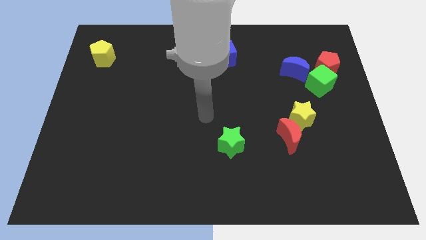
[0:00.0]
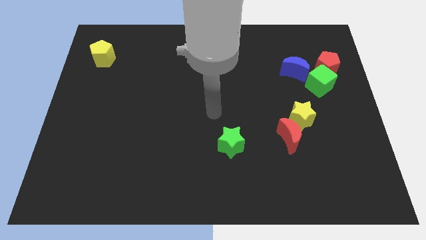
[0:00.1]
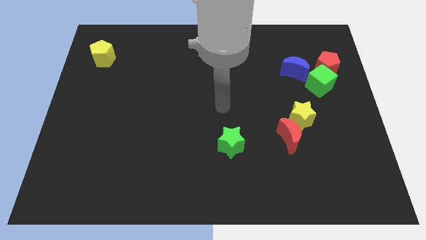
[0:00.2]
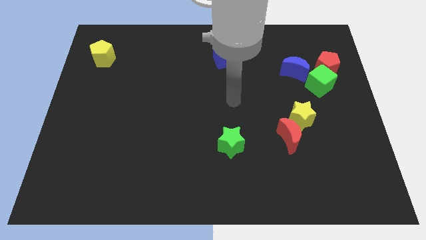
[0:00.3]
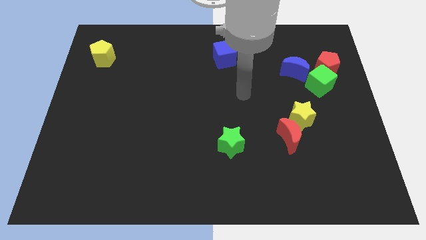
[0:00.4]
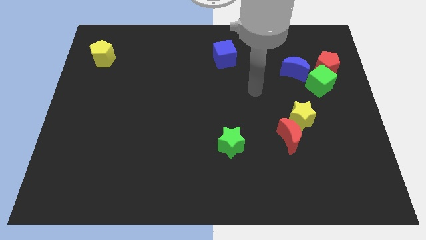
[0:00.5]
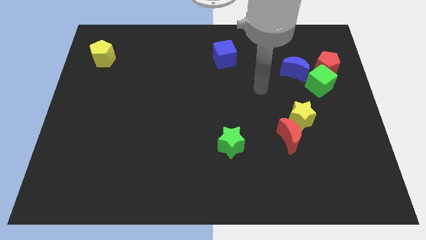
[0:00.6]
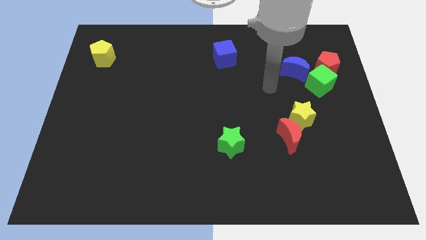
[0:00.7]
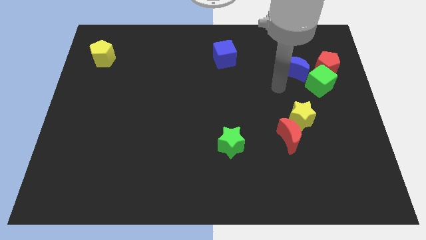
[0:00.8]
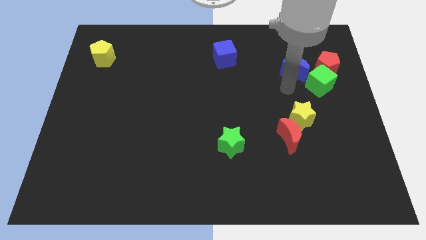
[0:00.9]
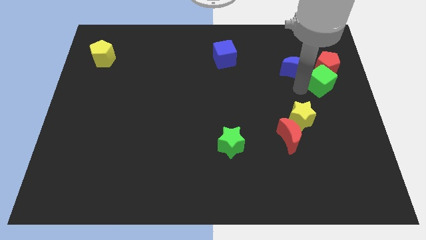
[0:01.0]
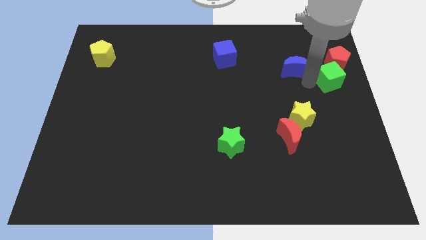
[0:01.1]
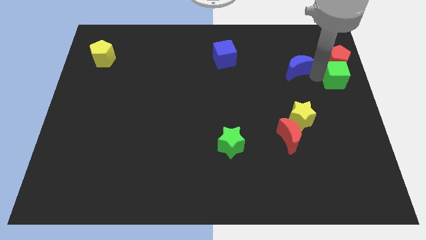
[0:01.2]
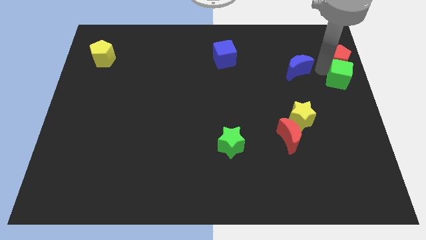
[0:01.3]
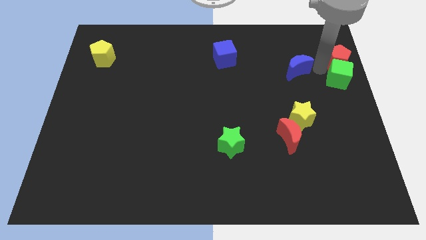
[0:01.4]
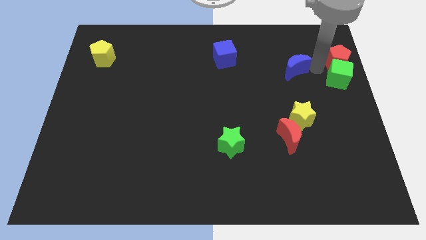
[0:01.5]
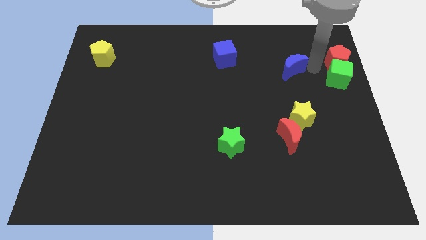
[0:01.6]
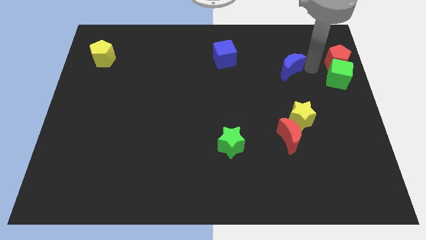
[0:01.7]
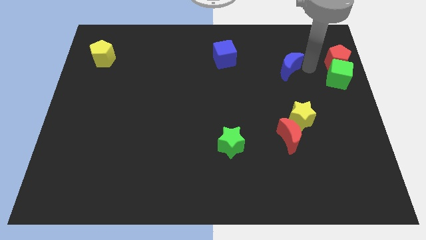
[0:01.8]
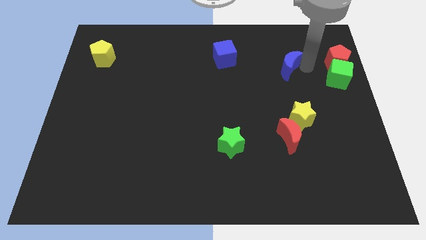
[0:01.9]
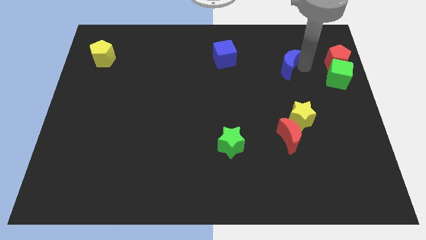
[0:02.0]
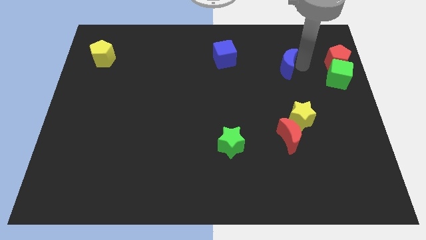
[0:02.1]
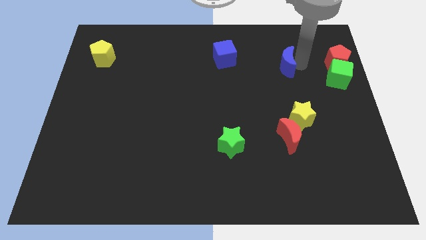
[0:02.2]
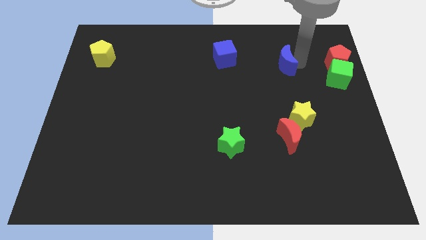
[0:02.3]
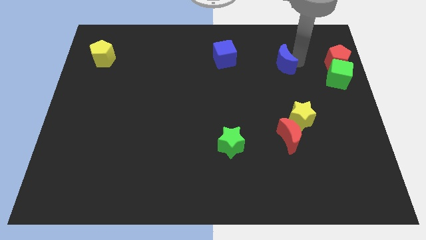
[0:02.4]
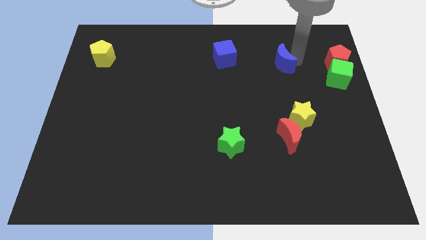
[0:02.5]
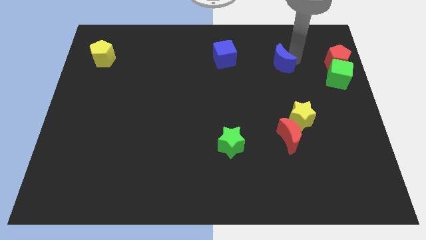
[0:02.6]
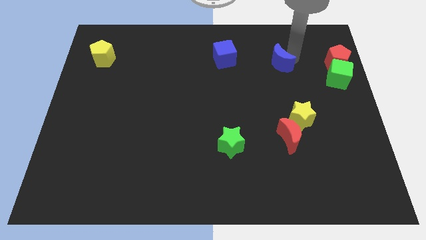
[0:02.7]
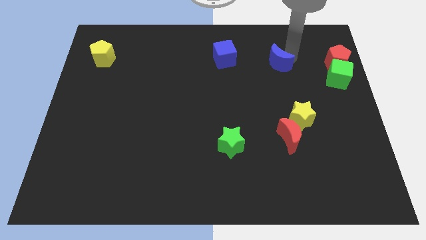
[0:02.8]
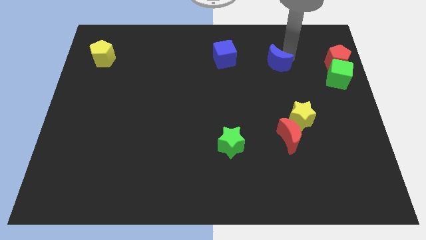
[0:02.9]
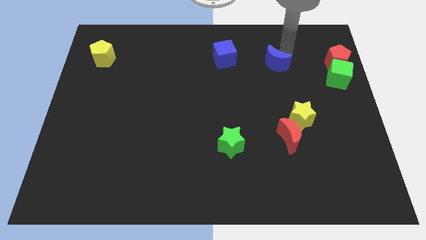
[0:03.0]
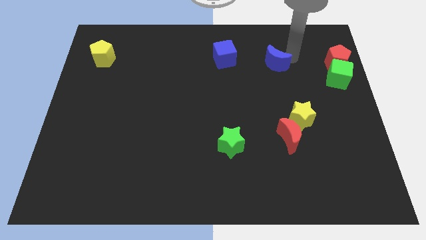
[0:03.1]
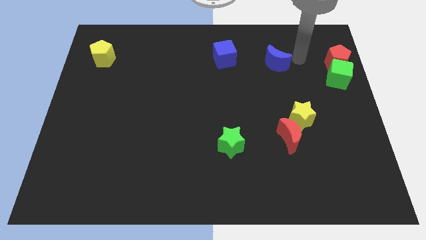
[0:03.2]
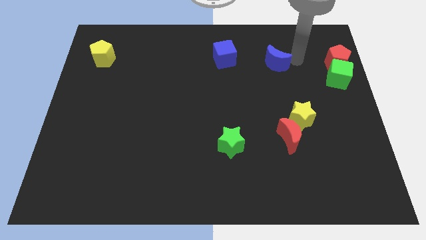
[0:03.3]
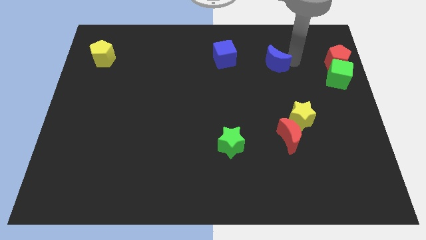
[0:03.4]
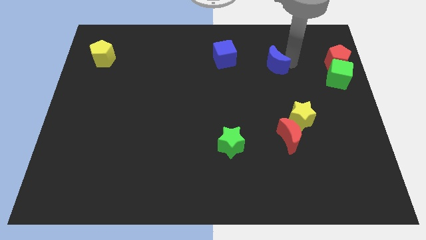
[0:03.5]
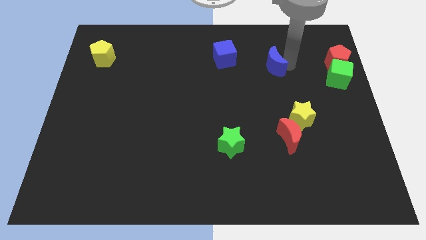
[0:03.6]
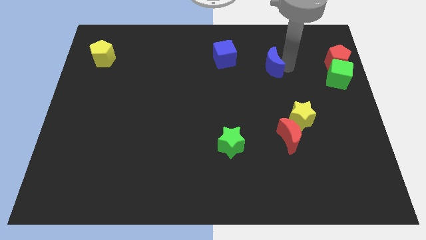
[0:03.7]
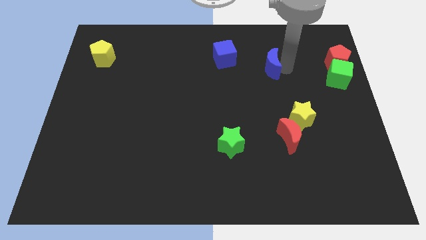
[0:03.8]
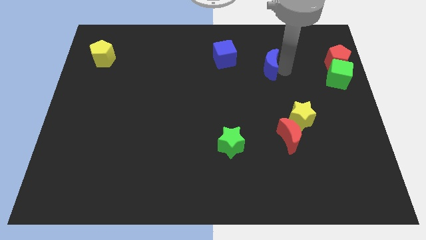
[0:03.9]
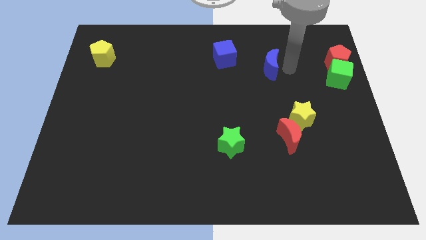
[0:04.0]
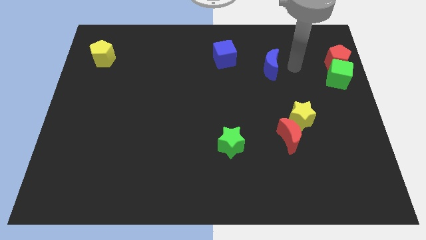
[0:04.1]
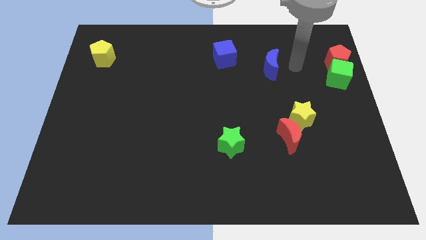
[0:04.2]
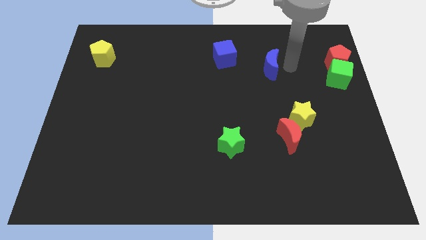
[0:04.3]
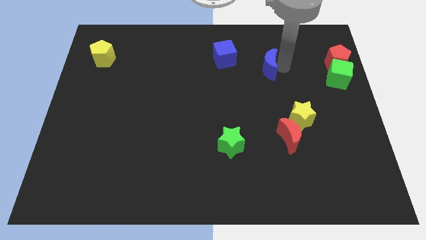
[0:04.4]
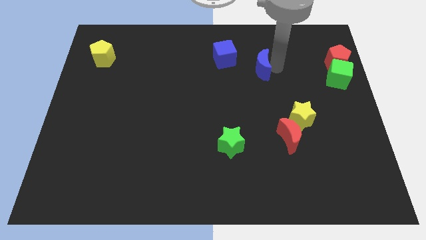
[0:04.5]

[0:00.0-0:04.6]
push the blue moon a bit to the left

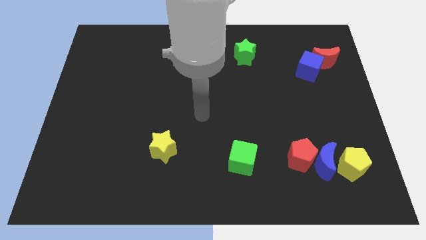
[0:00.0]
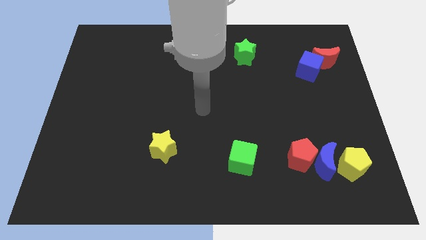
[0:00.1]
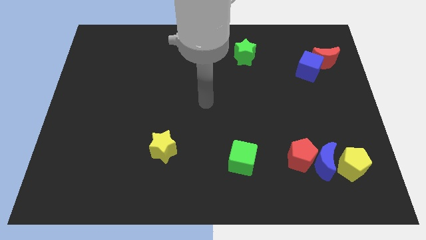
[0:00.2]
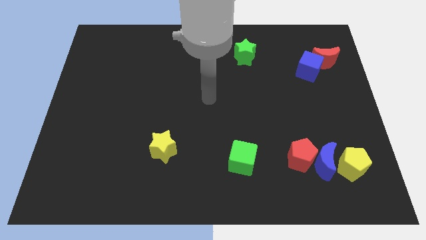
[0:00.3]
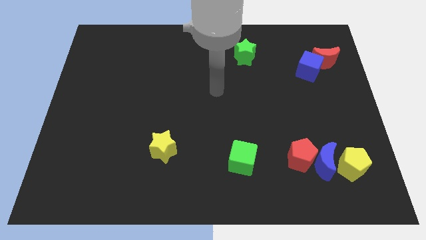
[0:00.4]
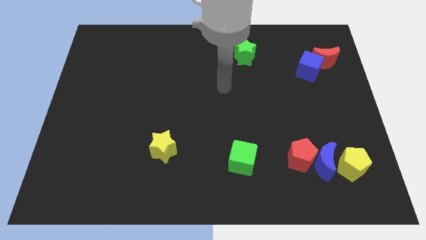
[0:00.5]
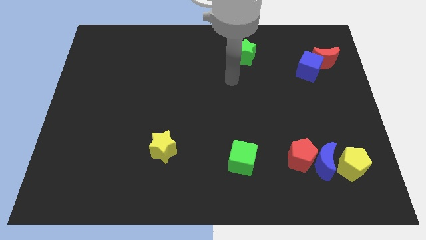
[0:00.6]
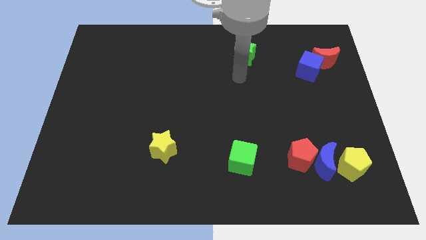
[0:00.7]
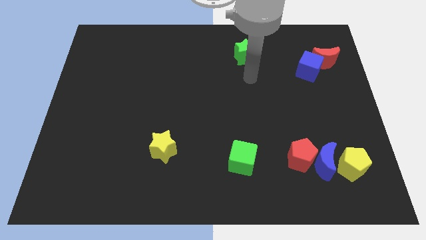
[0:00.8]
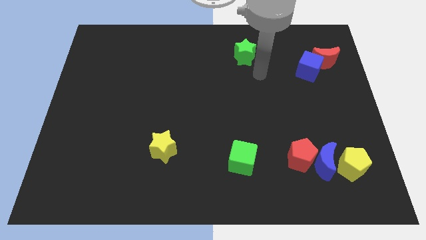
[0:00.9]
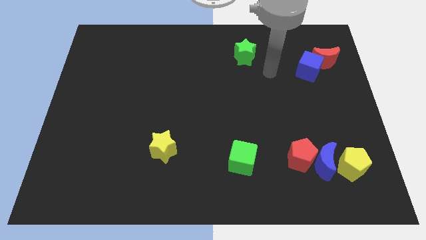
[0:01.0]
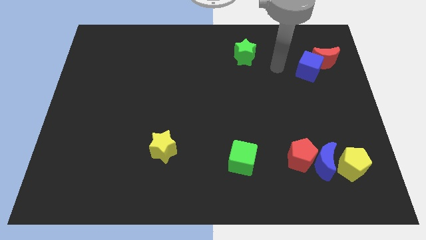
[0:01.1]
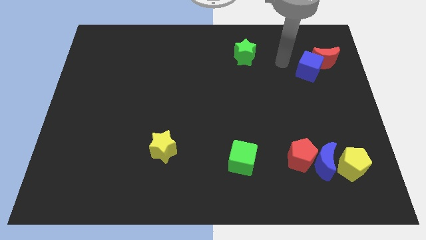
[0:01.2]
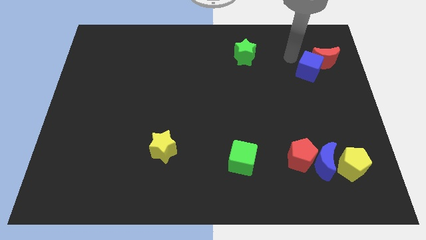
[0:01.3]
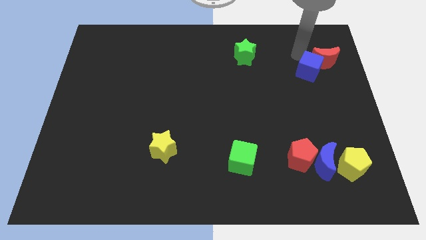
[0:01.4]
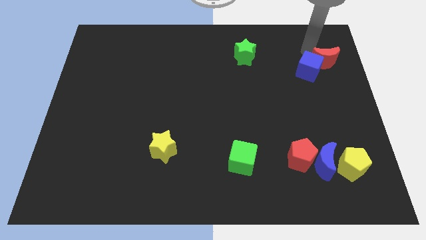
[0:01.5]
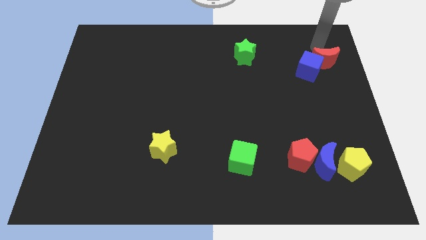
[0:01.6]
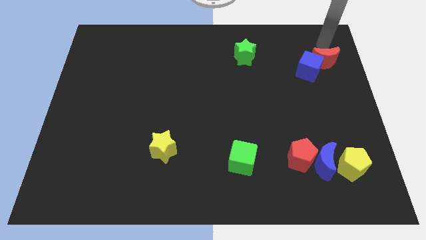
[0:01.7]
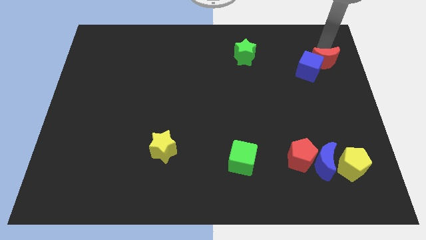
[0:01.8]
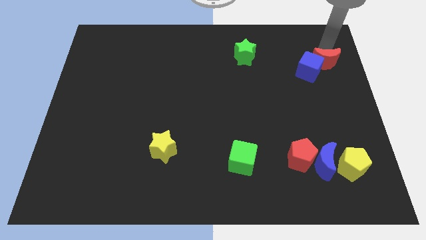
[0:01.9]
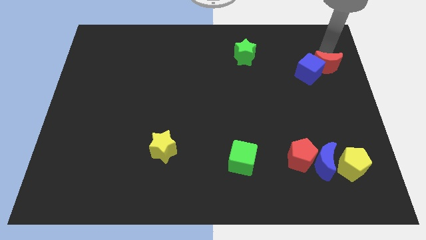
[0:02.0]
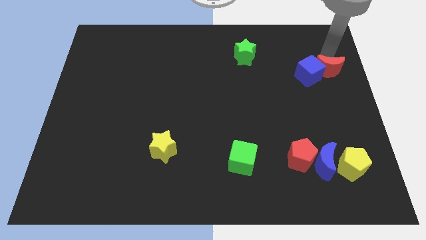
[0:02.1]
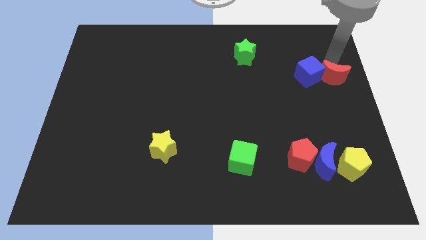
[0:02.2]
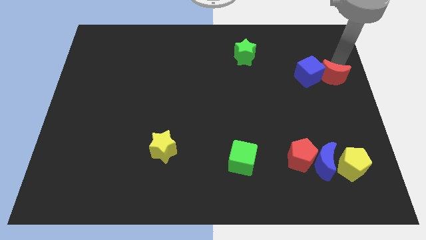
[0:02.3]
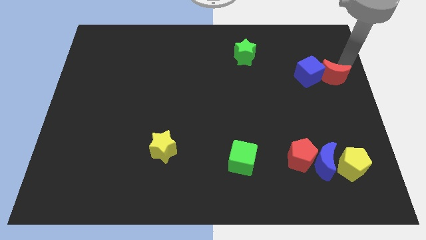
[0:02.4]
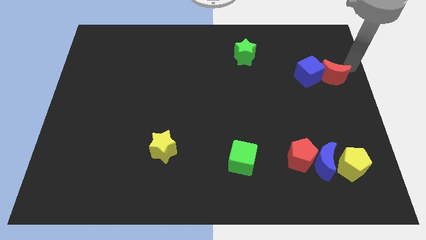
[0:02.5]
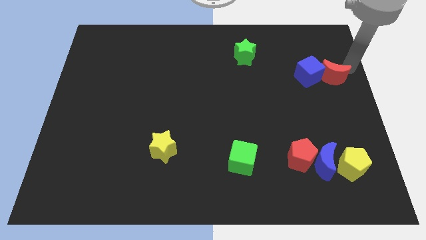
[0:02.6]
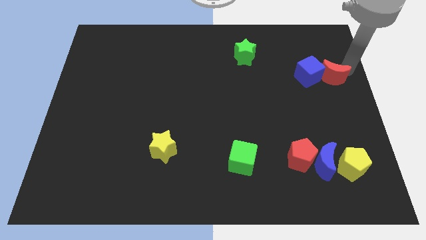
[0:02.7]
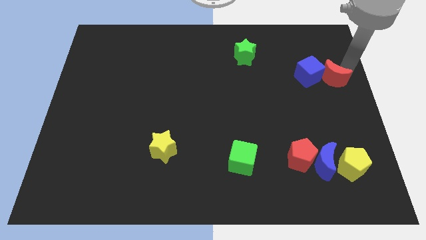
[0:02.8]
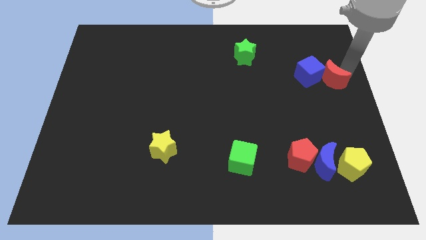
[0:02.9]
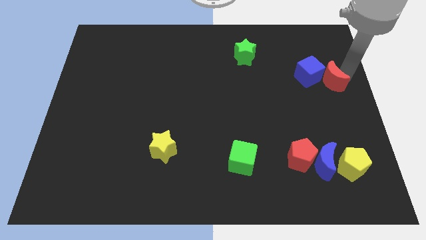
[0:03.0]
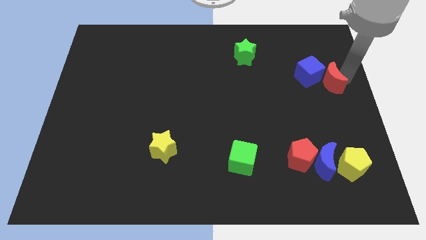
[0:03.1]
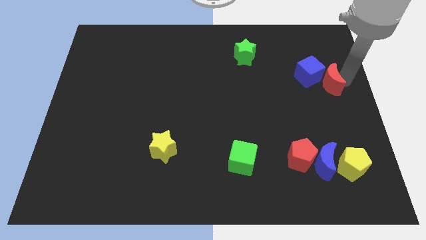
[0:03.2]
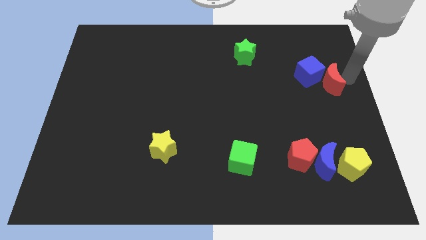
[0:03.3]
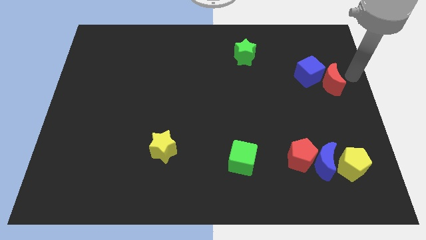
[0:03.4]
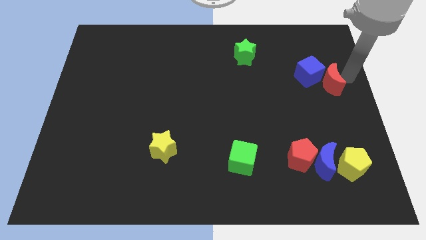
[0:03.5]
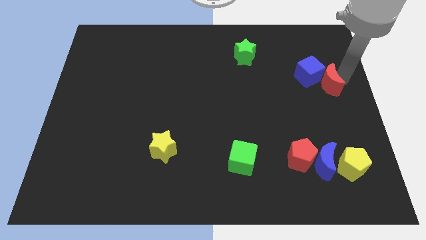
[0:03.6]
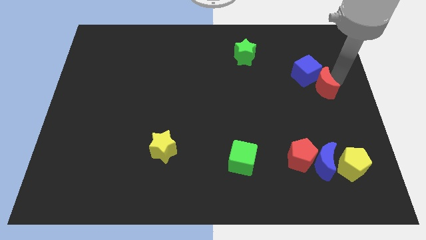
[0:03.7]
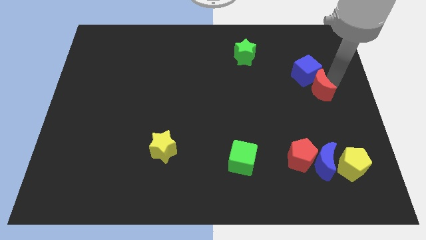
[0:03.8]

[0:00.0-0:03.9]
slightly slide the red moon downwards and then to the left
